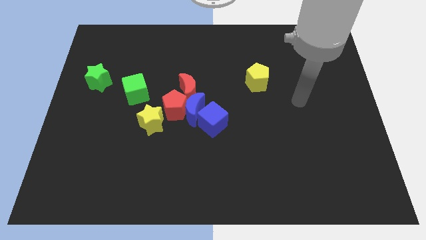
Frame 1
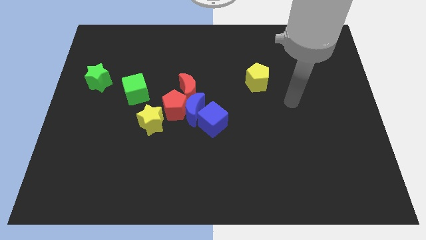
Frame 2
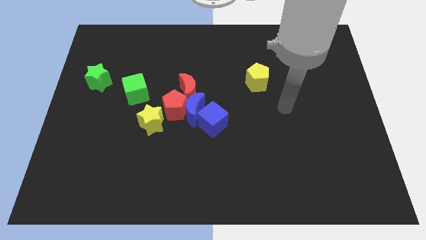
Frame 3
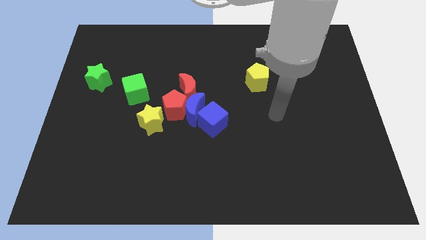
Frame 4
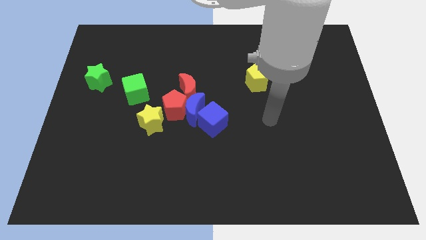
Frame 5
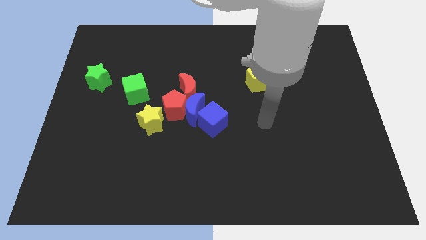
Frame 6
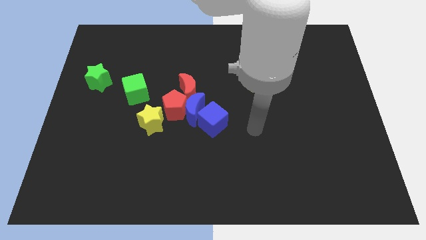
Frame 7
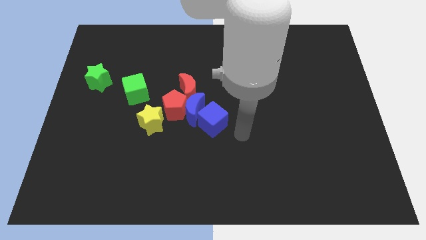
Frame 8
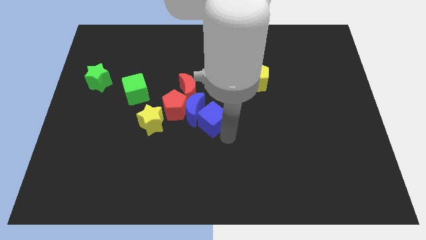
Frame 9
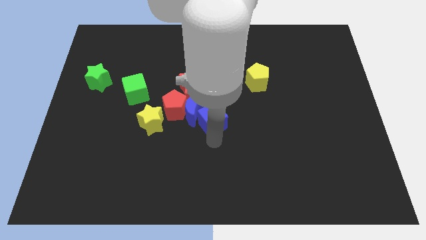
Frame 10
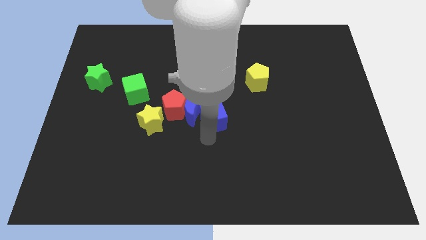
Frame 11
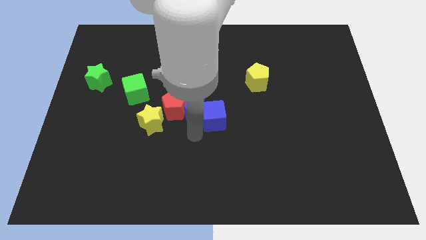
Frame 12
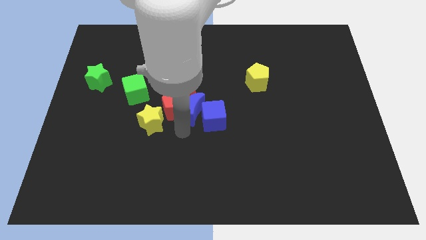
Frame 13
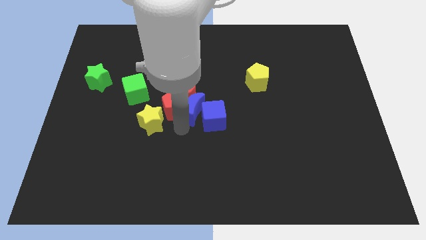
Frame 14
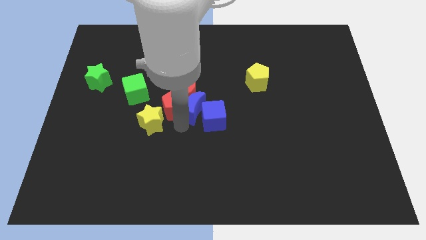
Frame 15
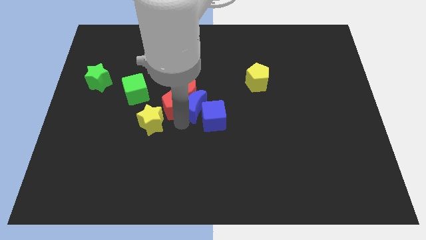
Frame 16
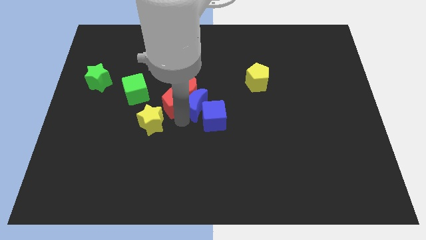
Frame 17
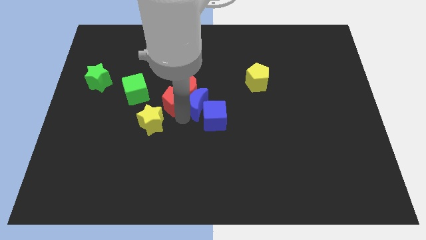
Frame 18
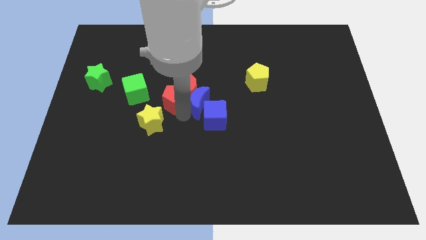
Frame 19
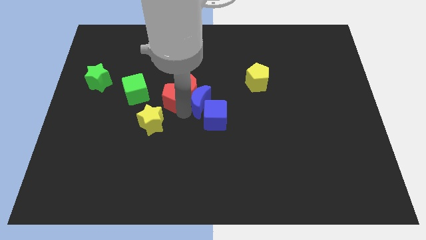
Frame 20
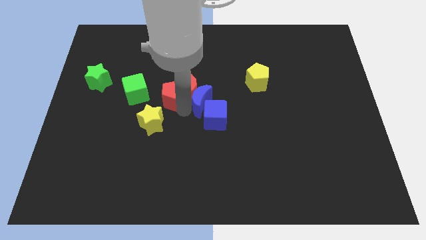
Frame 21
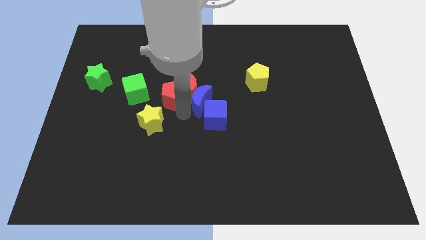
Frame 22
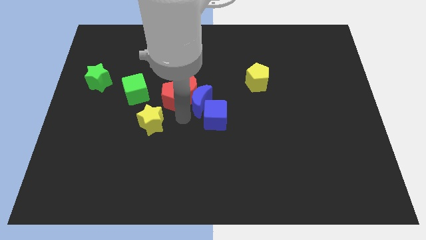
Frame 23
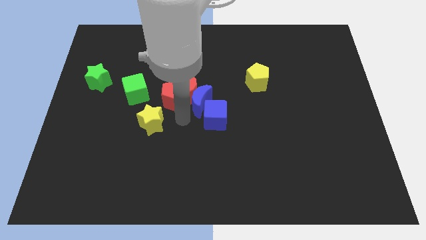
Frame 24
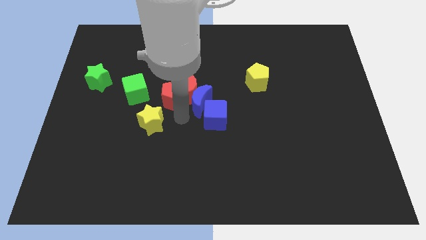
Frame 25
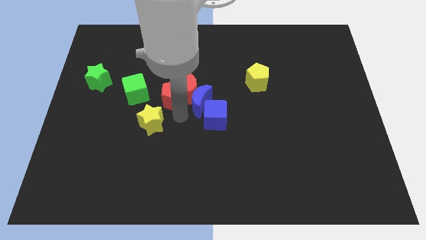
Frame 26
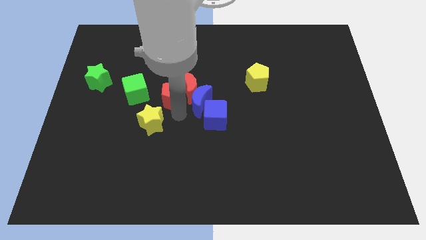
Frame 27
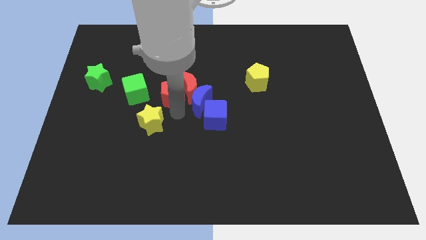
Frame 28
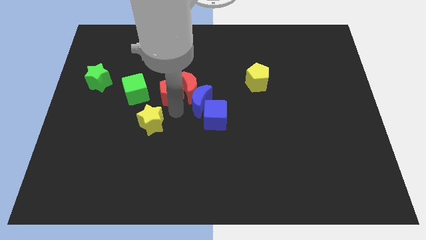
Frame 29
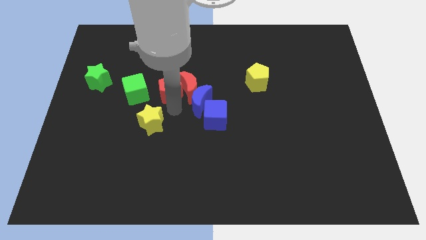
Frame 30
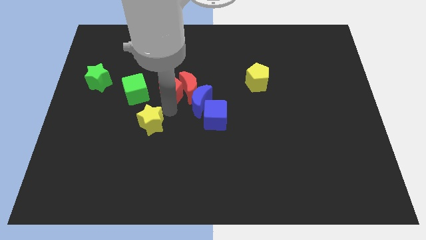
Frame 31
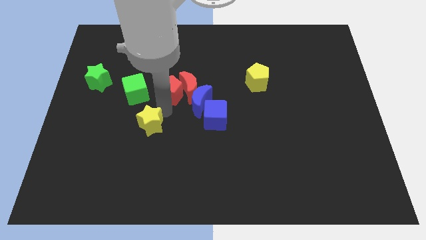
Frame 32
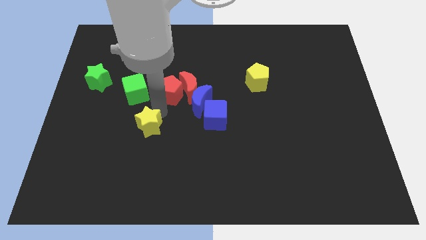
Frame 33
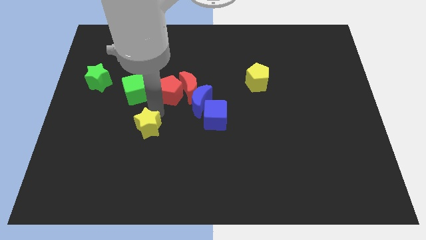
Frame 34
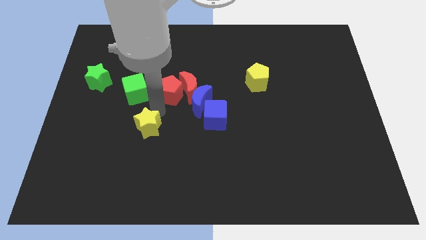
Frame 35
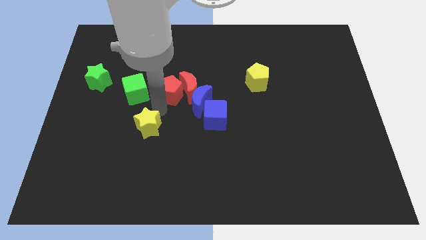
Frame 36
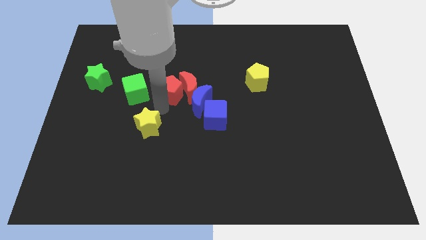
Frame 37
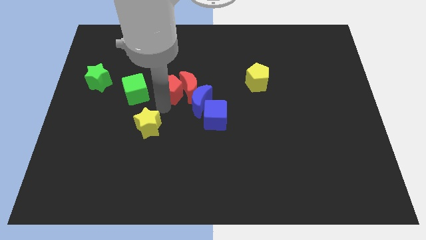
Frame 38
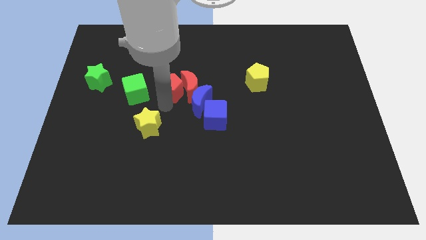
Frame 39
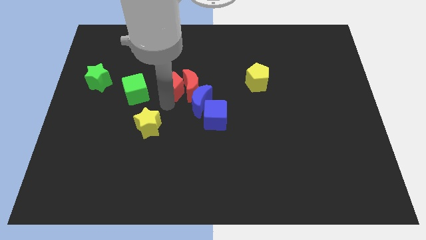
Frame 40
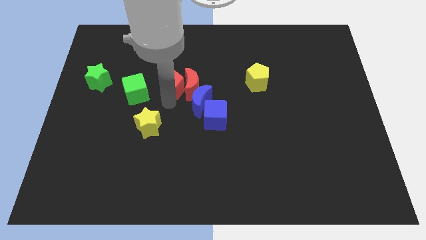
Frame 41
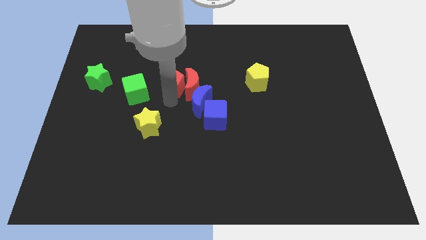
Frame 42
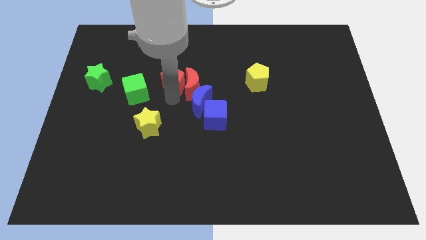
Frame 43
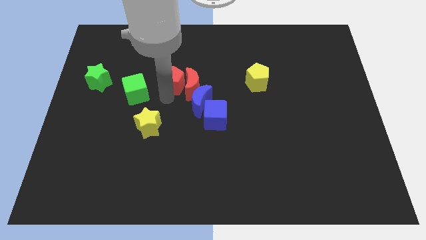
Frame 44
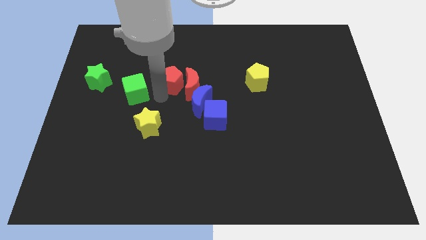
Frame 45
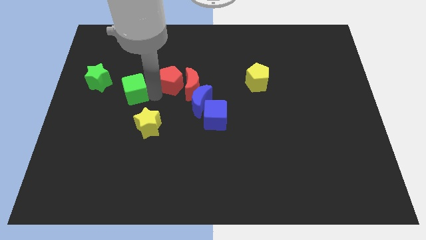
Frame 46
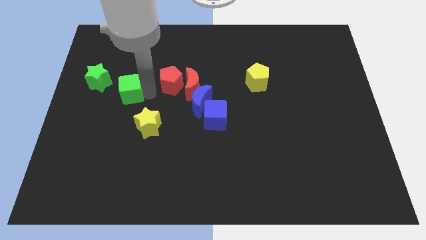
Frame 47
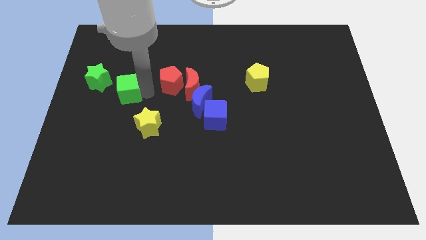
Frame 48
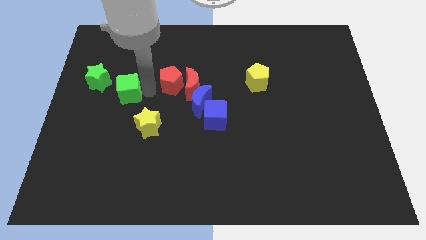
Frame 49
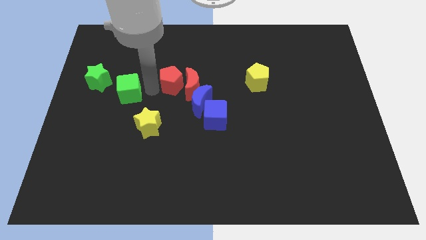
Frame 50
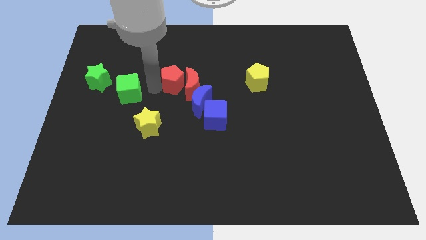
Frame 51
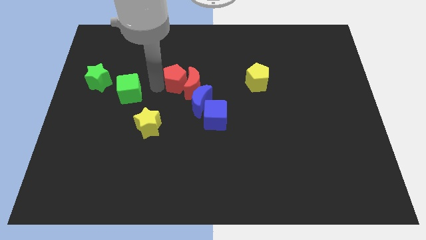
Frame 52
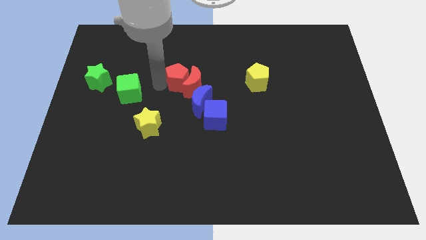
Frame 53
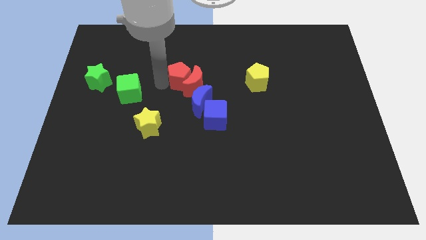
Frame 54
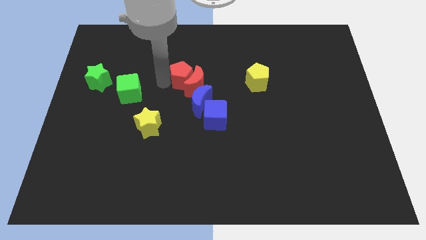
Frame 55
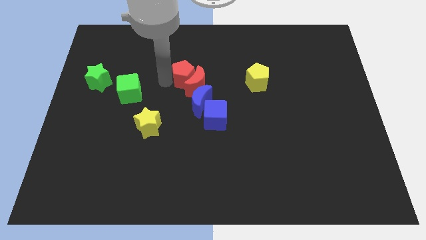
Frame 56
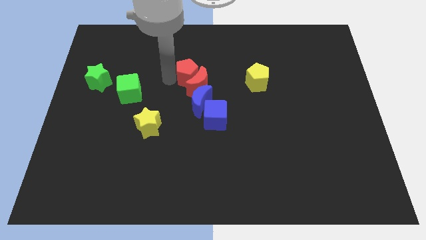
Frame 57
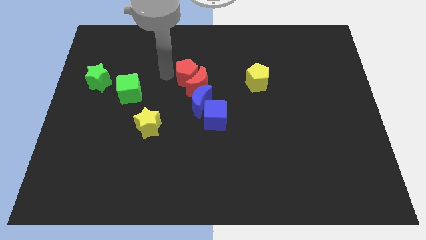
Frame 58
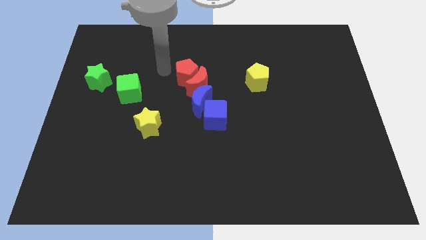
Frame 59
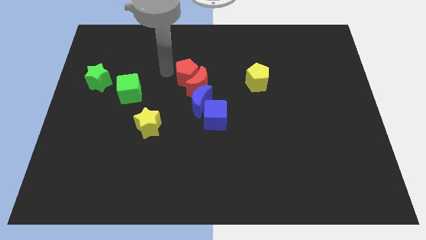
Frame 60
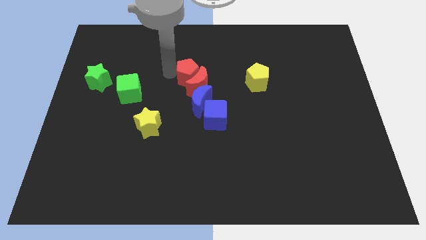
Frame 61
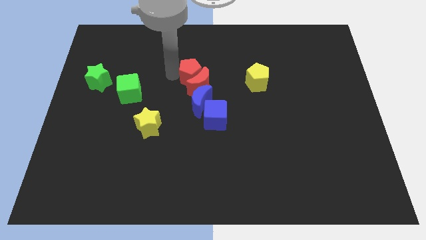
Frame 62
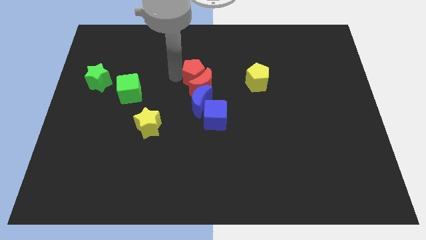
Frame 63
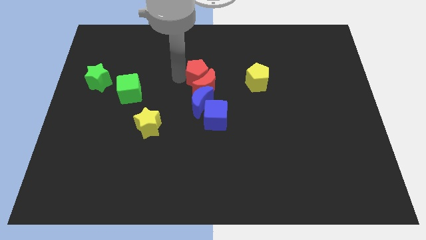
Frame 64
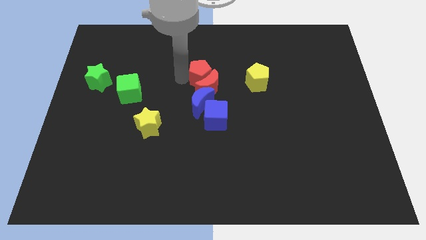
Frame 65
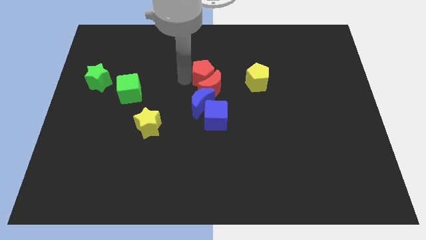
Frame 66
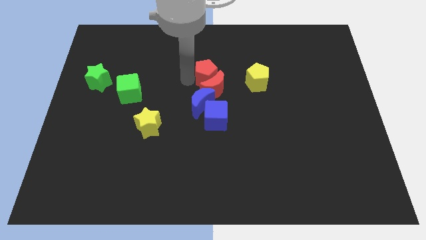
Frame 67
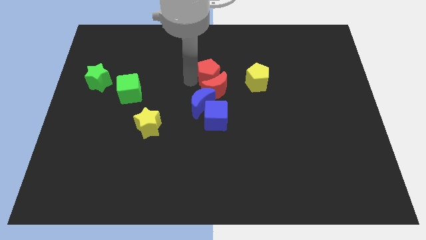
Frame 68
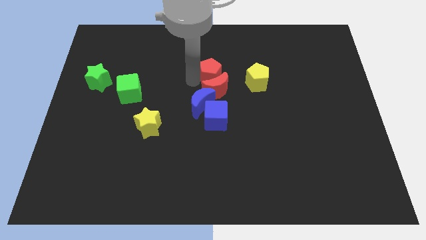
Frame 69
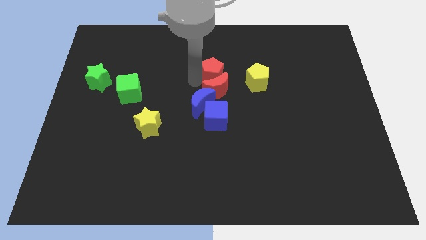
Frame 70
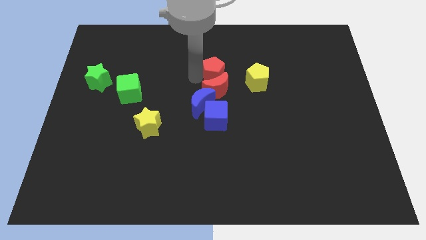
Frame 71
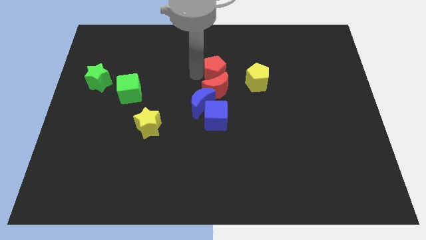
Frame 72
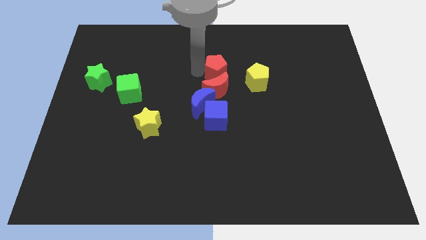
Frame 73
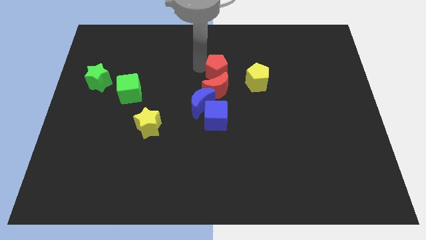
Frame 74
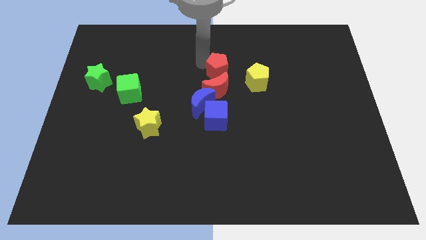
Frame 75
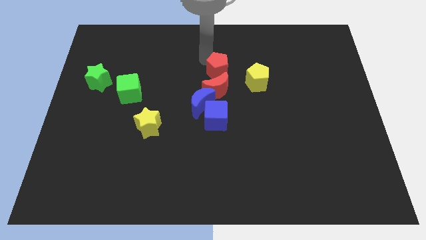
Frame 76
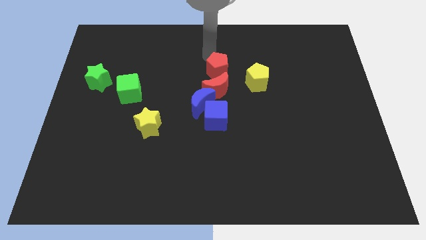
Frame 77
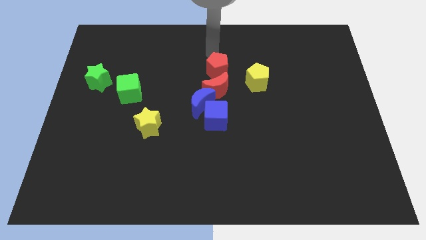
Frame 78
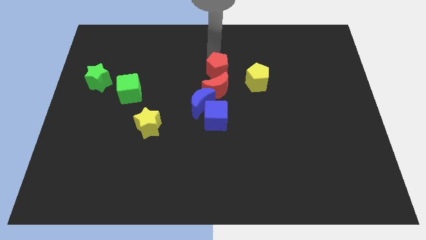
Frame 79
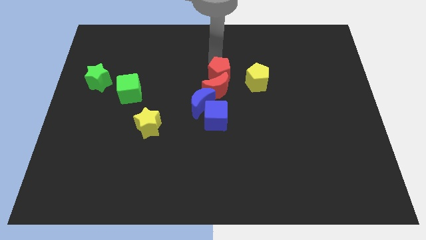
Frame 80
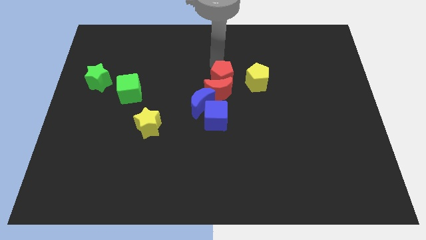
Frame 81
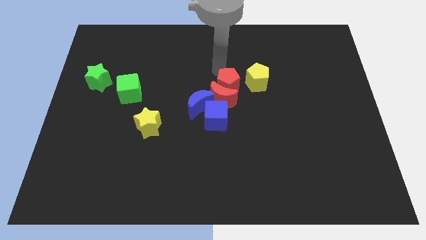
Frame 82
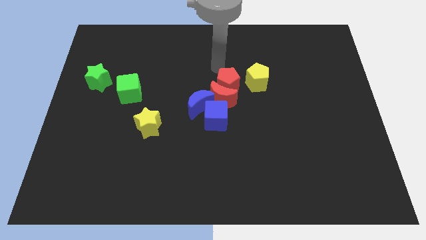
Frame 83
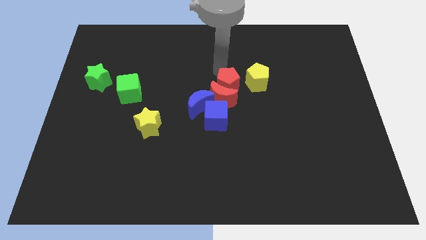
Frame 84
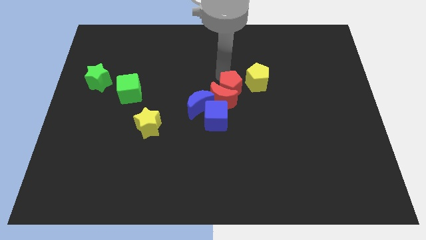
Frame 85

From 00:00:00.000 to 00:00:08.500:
put the red pentagon to the top right of the blue cube
